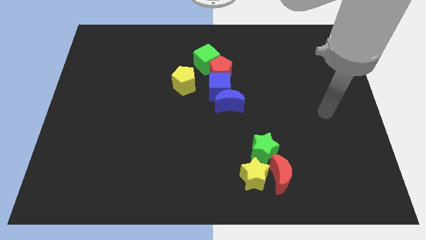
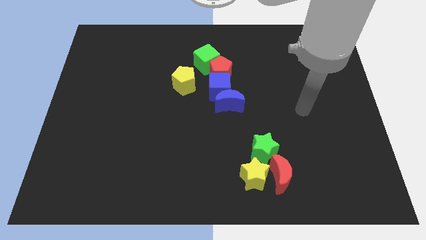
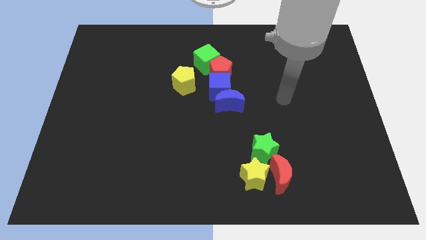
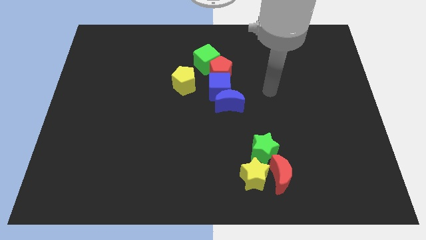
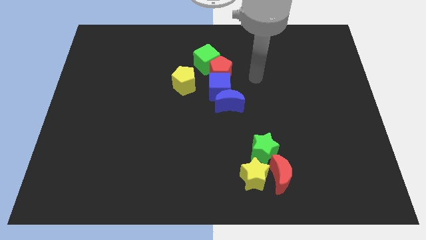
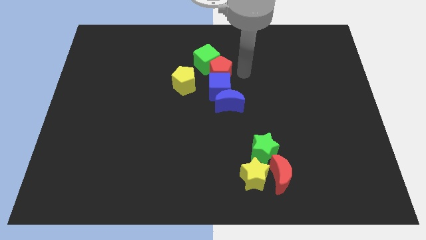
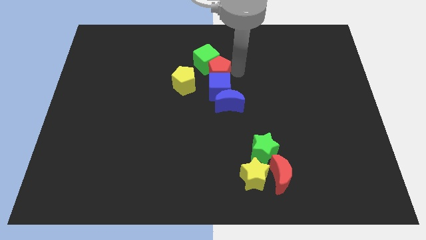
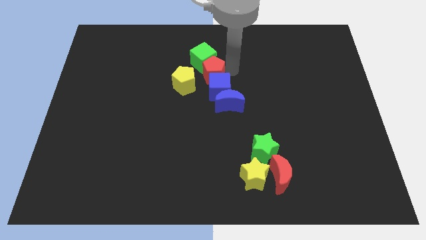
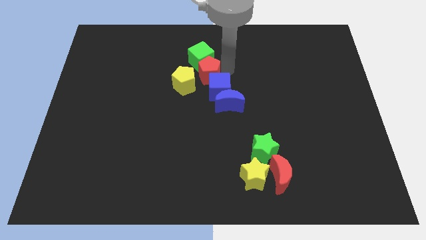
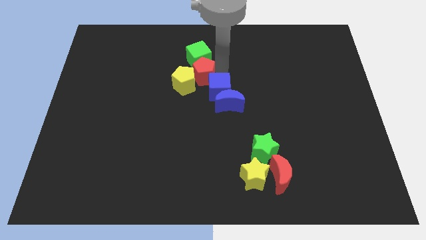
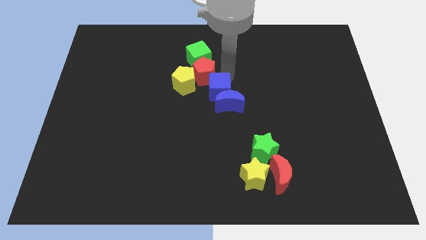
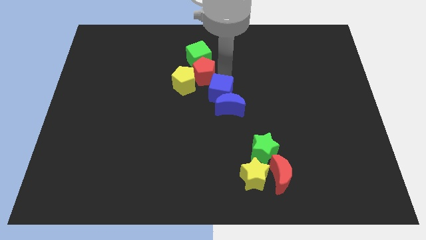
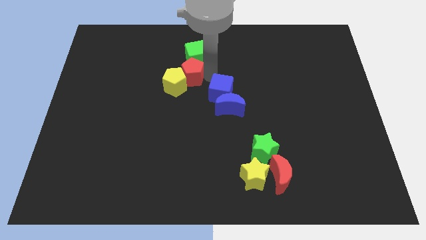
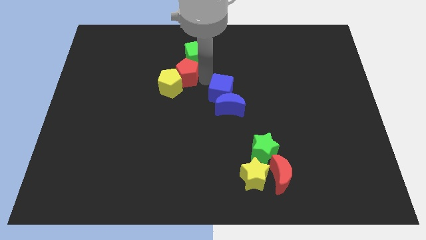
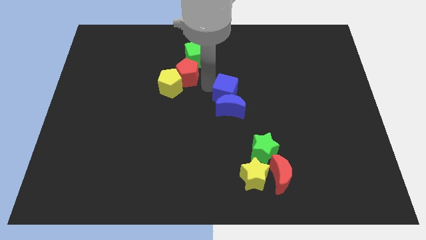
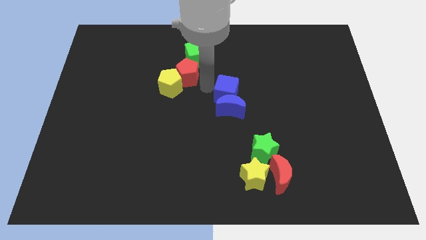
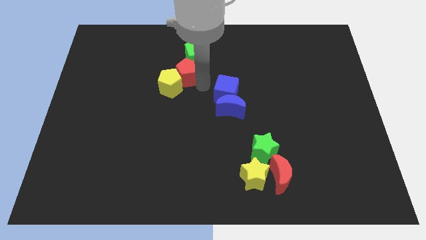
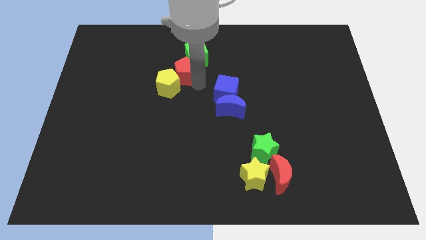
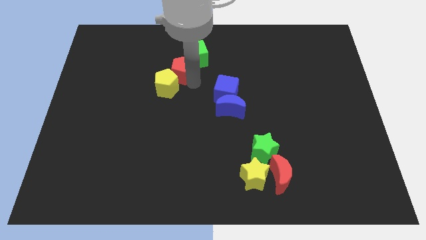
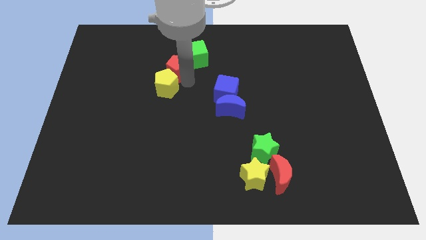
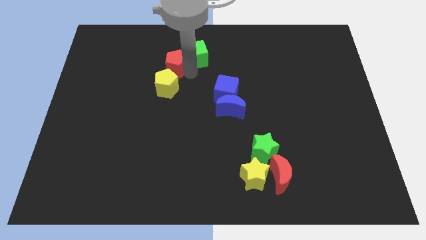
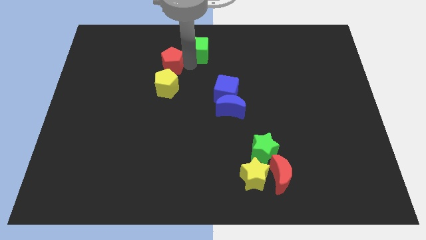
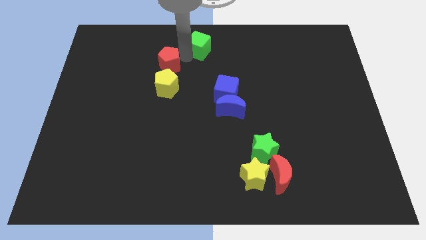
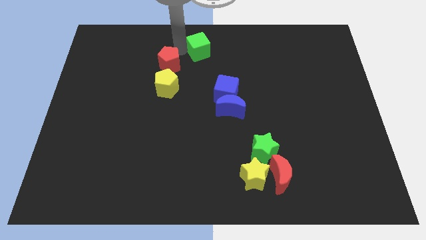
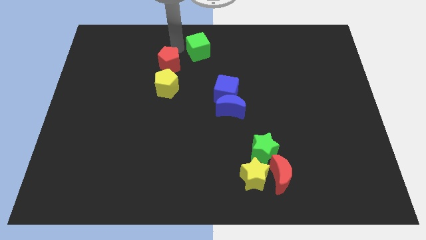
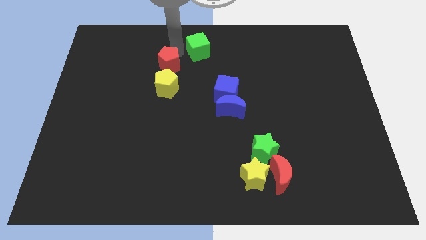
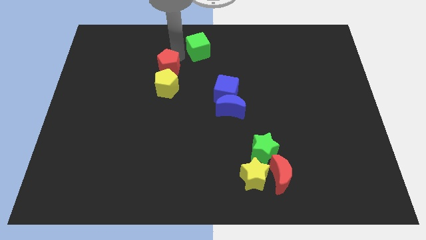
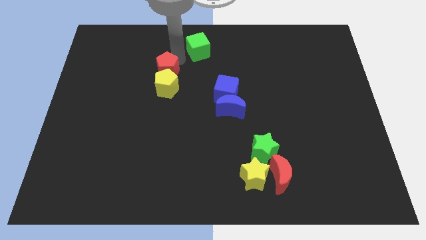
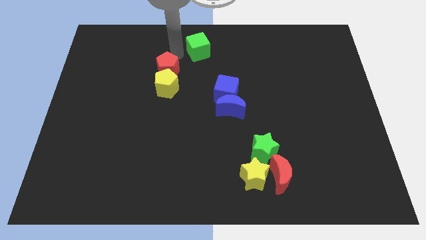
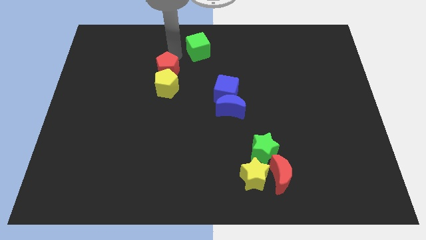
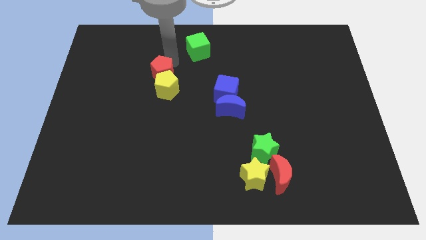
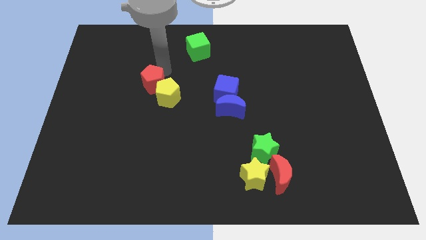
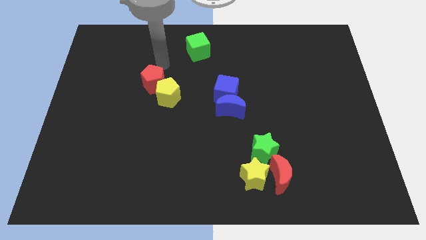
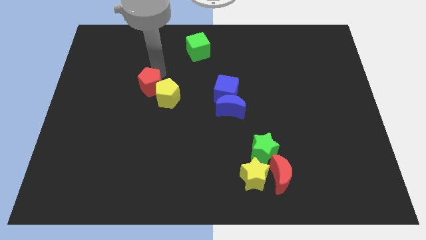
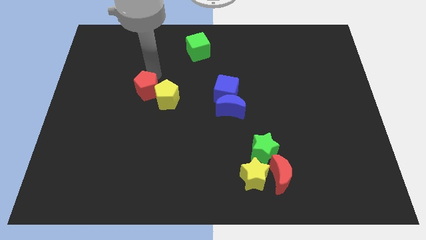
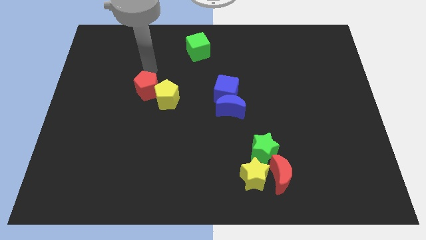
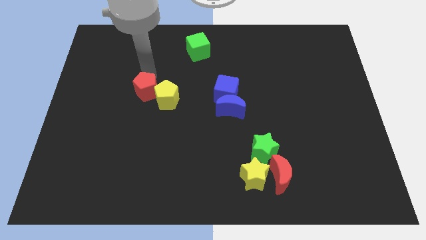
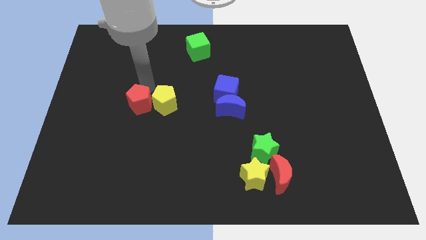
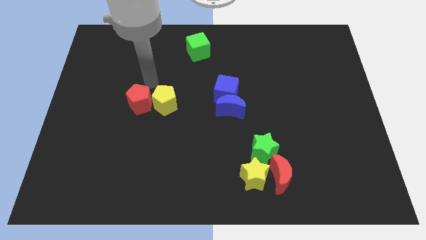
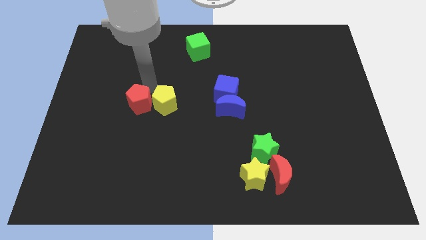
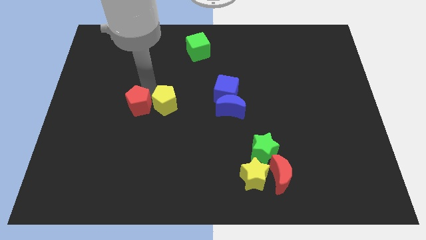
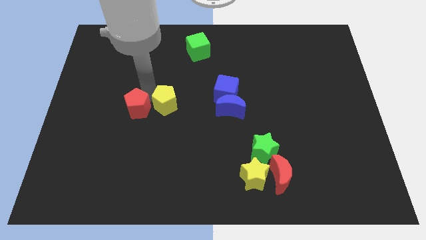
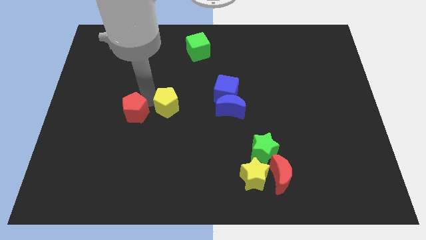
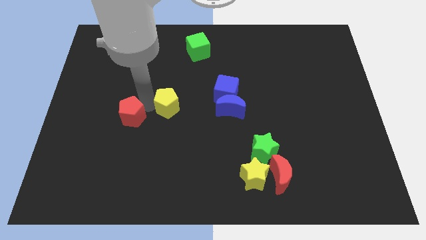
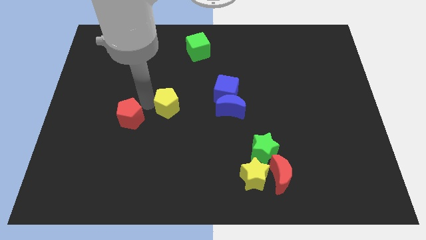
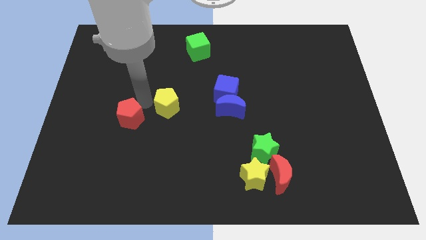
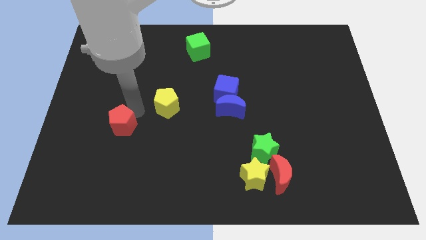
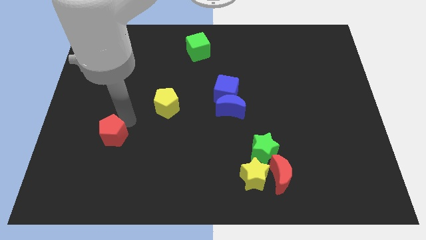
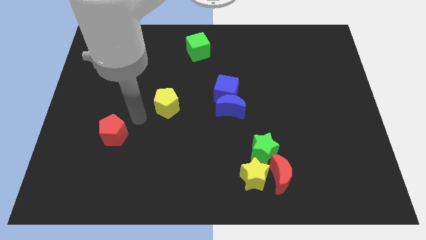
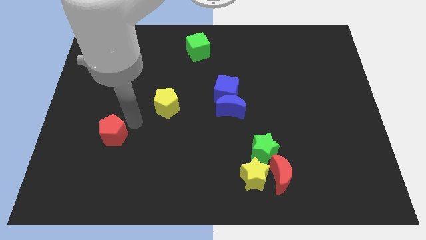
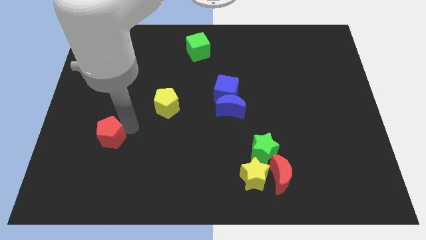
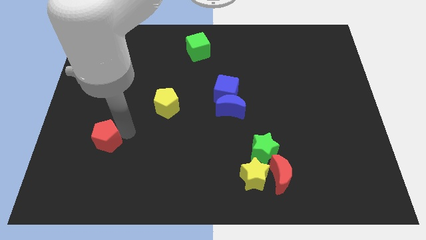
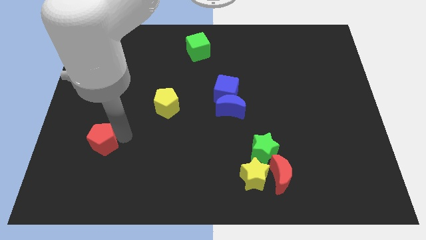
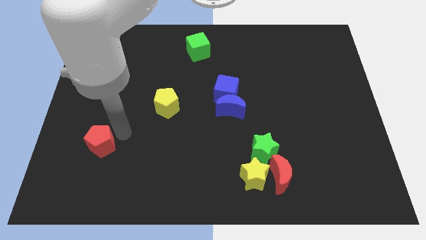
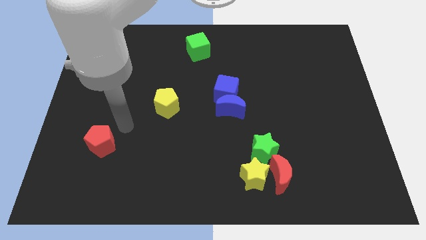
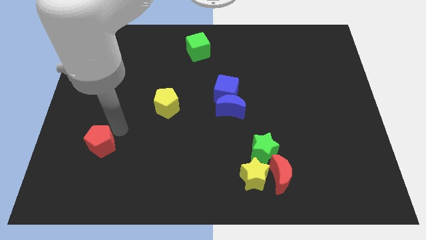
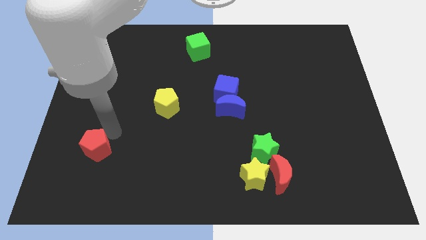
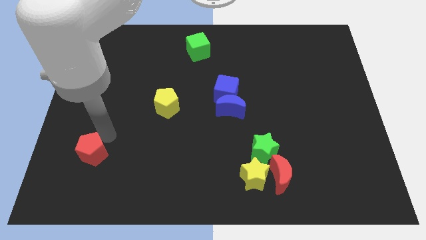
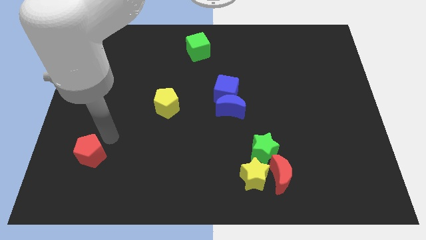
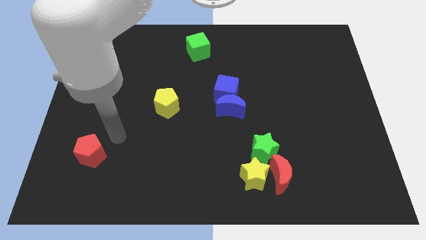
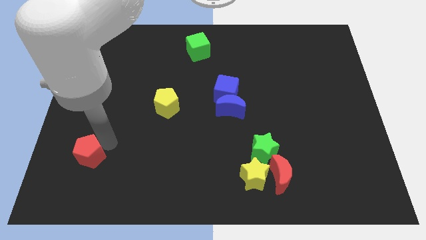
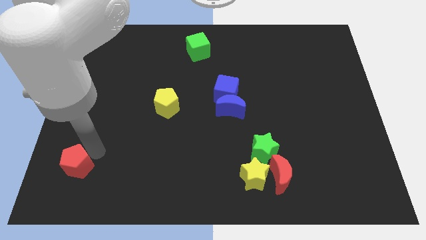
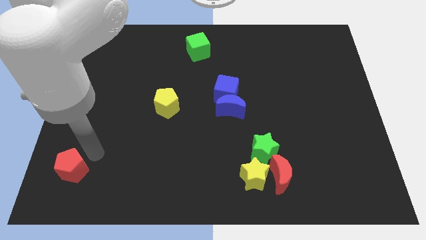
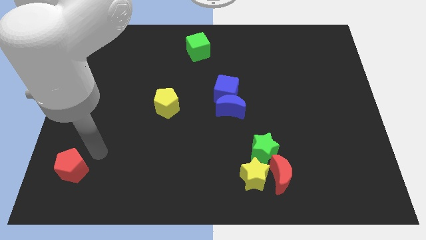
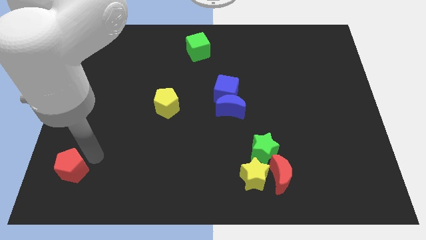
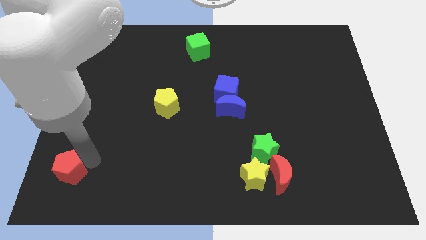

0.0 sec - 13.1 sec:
move the red pentagon to the bottom left corner
